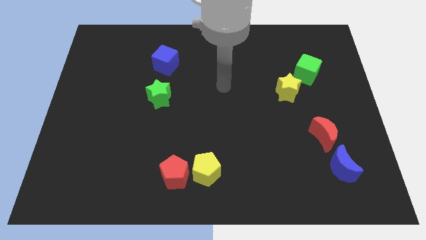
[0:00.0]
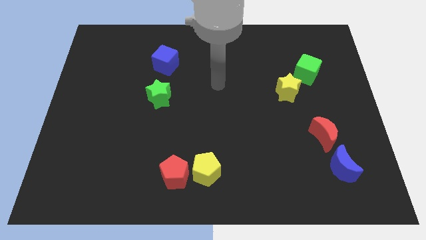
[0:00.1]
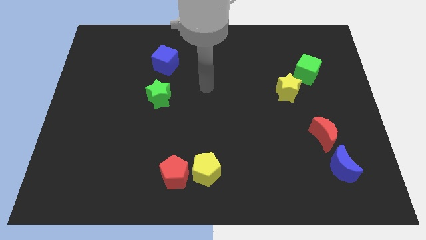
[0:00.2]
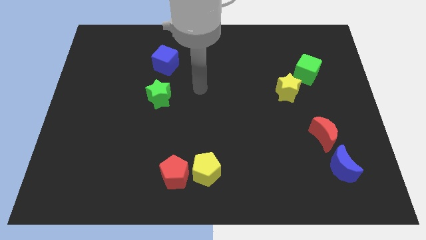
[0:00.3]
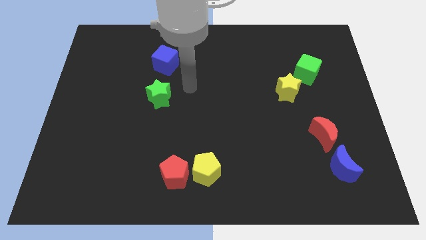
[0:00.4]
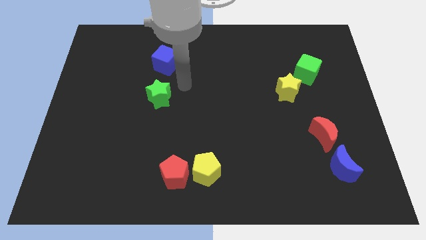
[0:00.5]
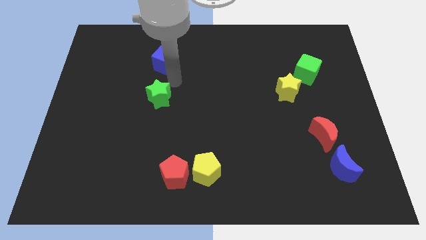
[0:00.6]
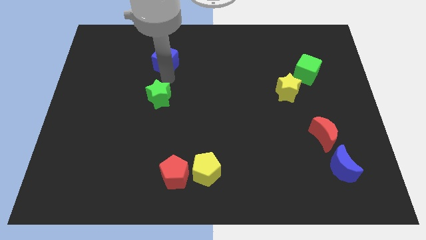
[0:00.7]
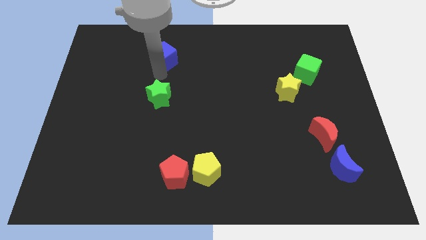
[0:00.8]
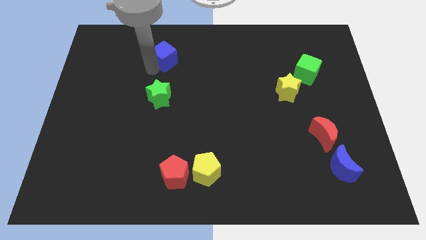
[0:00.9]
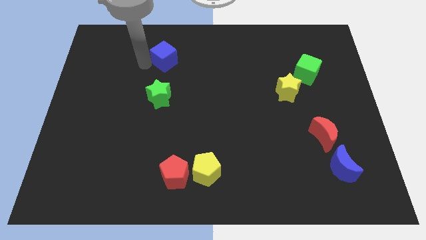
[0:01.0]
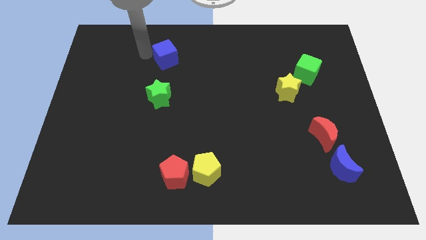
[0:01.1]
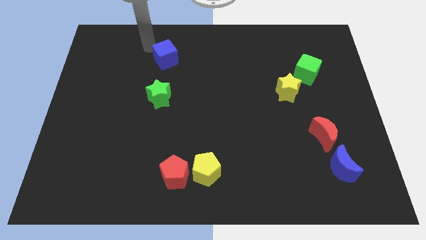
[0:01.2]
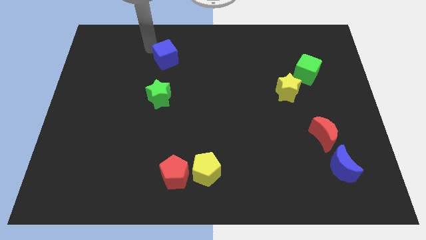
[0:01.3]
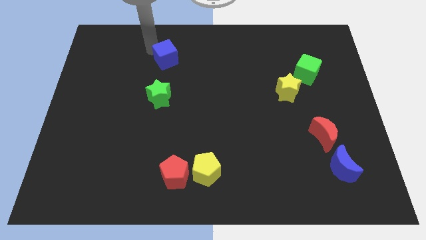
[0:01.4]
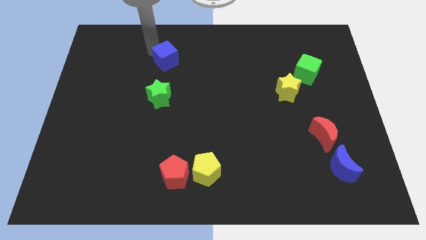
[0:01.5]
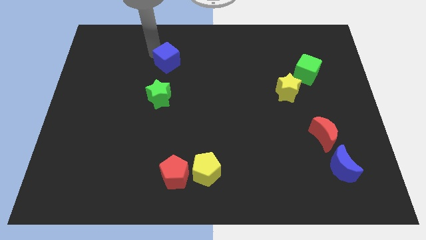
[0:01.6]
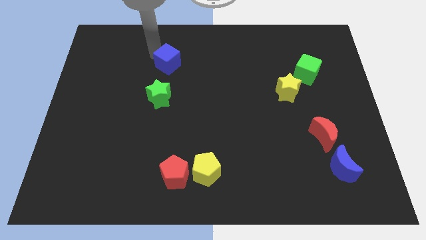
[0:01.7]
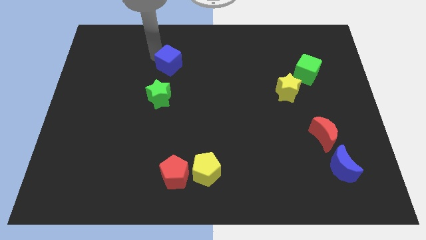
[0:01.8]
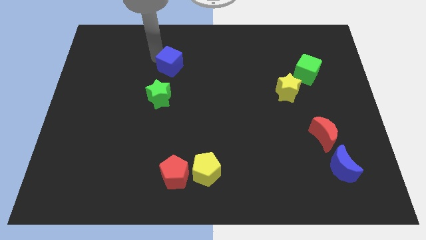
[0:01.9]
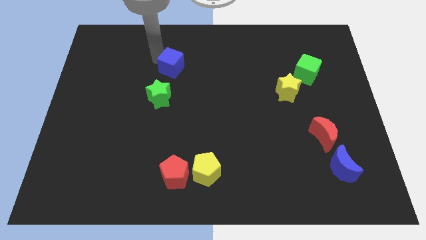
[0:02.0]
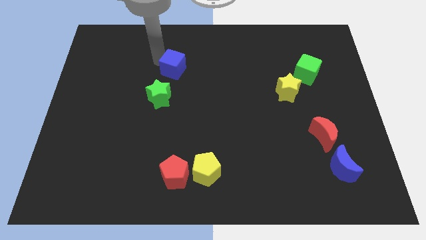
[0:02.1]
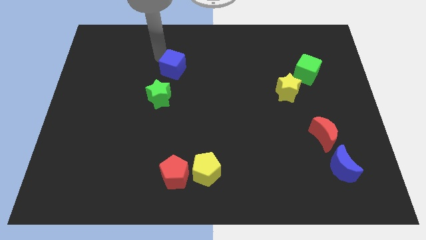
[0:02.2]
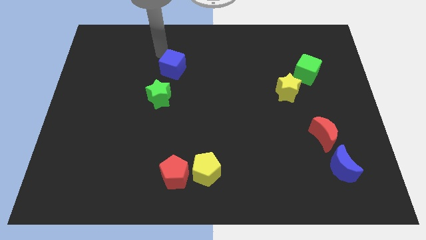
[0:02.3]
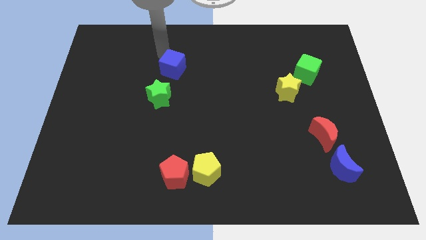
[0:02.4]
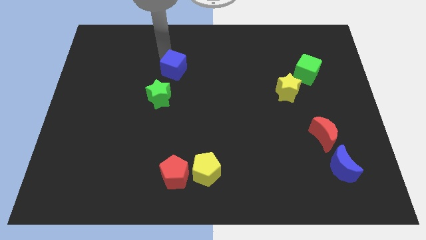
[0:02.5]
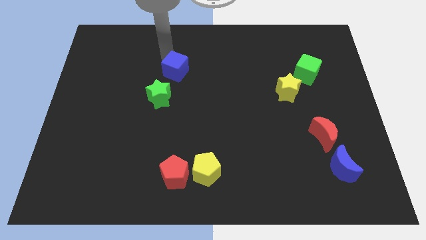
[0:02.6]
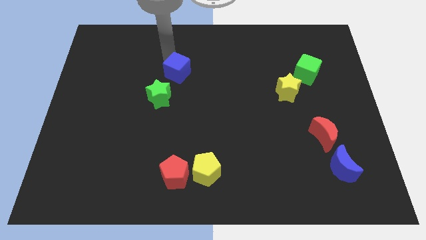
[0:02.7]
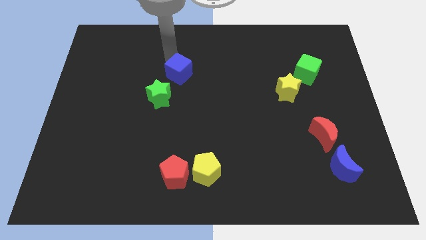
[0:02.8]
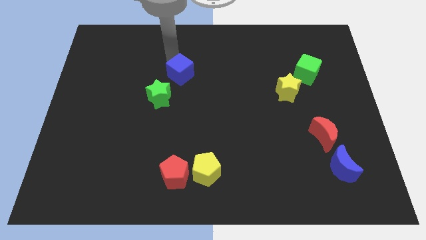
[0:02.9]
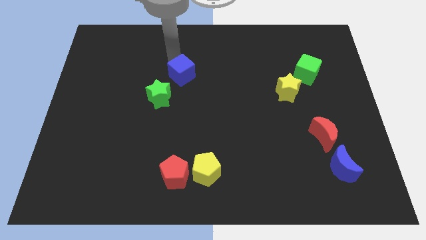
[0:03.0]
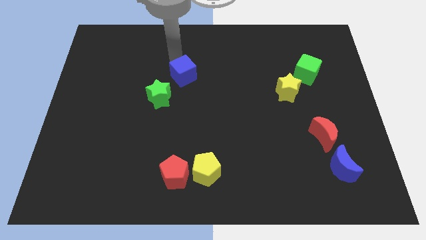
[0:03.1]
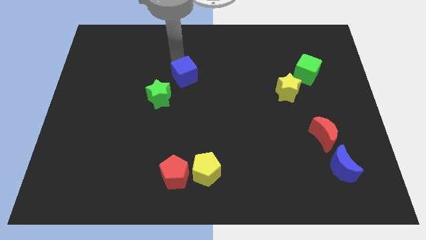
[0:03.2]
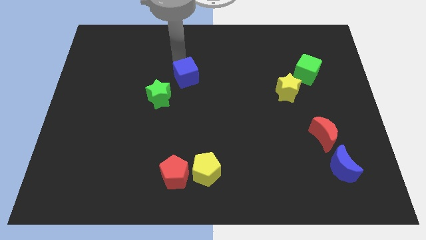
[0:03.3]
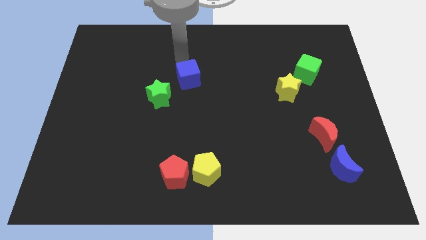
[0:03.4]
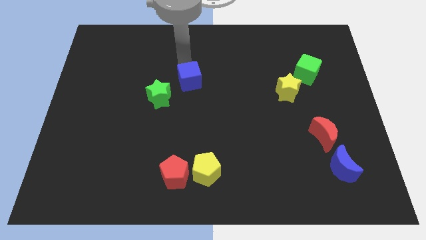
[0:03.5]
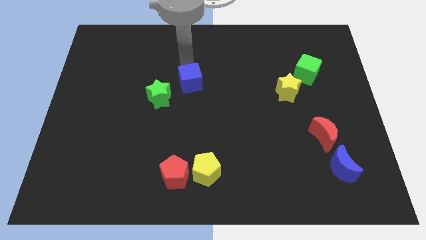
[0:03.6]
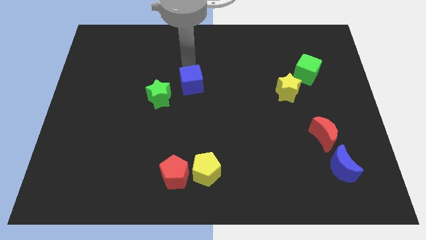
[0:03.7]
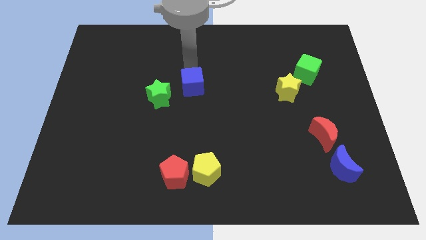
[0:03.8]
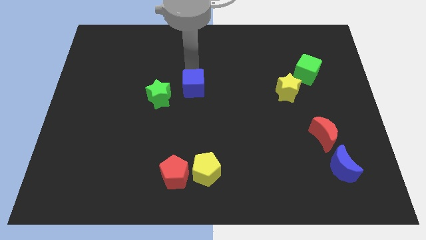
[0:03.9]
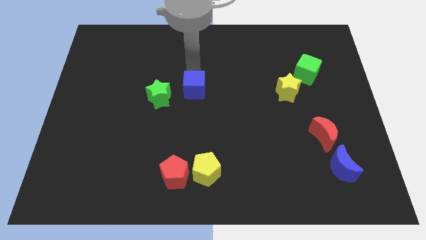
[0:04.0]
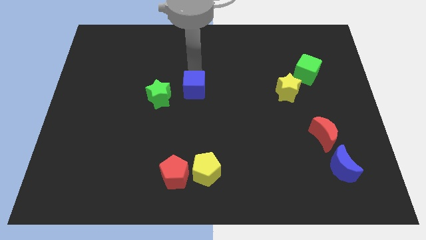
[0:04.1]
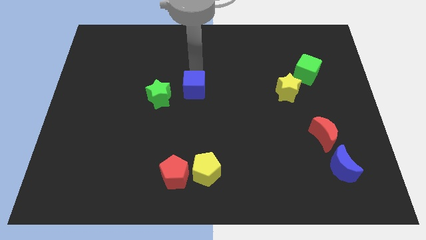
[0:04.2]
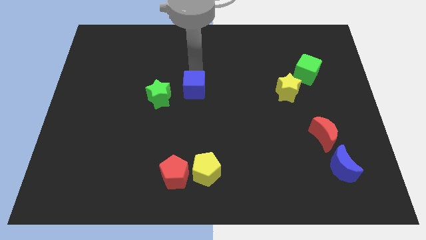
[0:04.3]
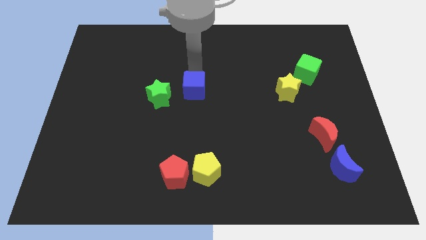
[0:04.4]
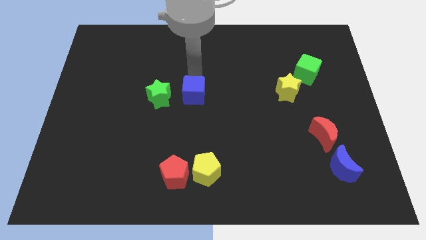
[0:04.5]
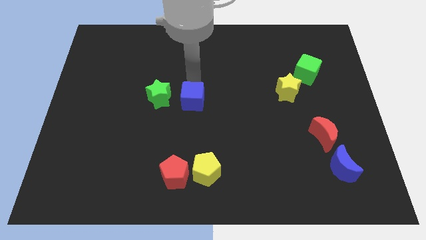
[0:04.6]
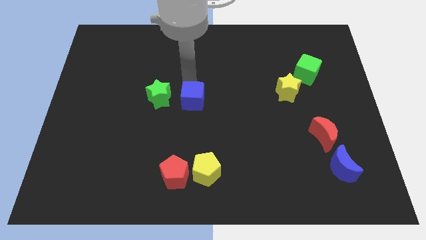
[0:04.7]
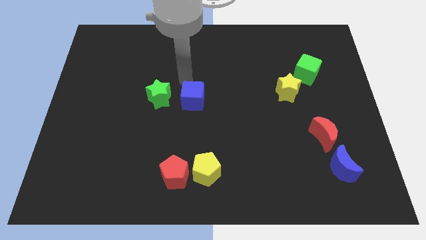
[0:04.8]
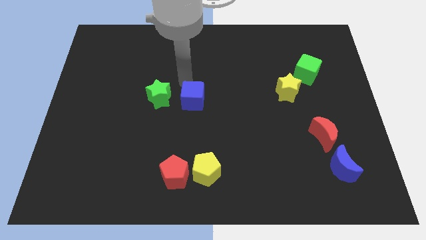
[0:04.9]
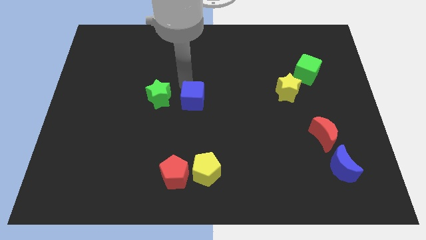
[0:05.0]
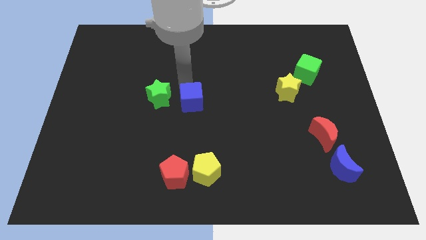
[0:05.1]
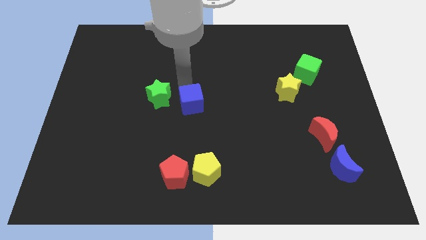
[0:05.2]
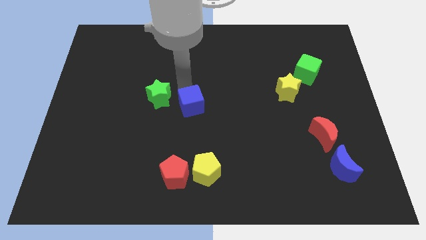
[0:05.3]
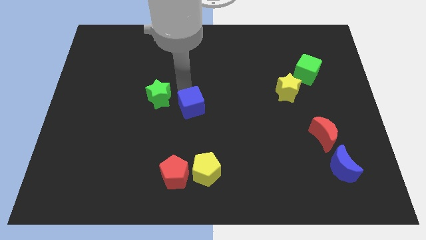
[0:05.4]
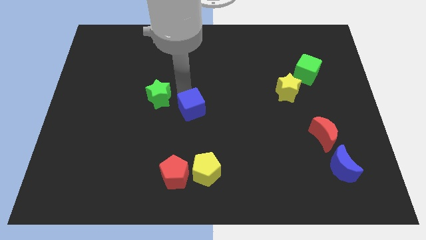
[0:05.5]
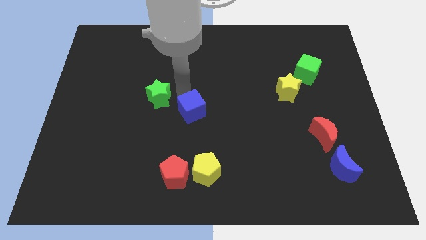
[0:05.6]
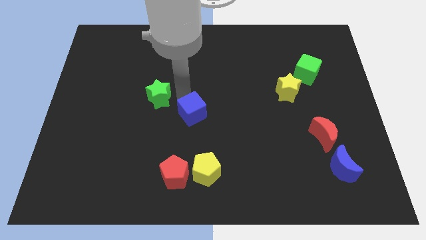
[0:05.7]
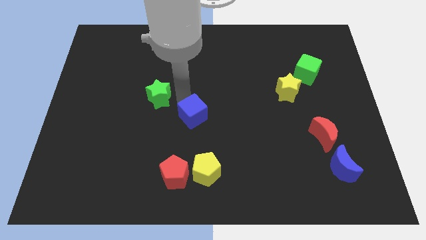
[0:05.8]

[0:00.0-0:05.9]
push the blue cube to the top side of the yellow pentagon

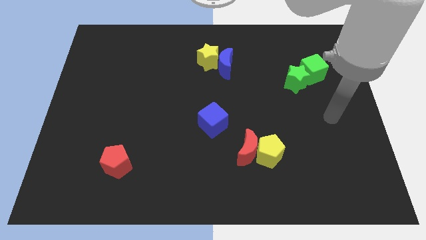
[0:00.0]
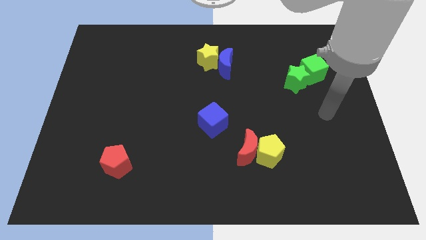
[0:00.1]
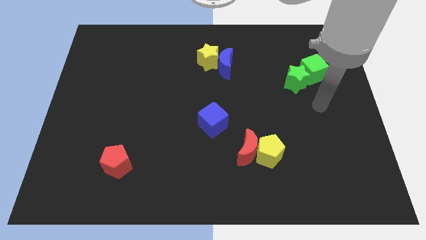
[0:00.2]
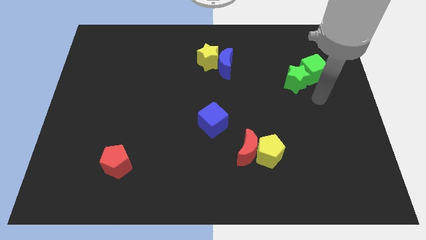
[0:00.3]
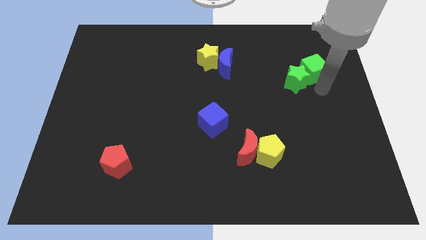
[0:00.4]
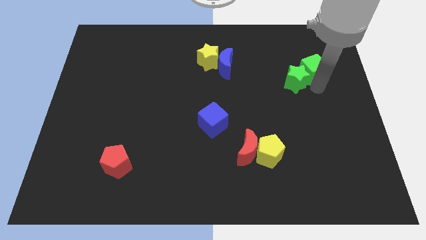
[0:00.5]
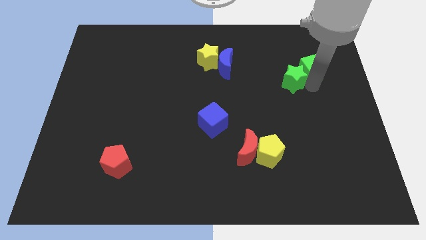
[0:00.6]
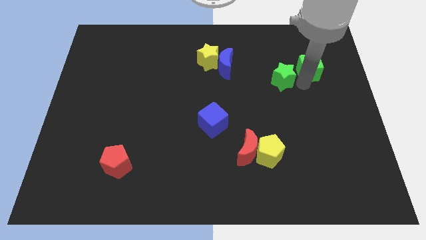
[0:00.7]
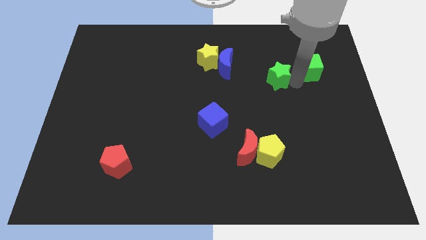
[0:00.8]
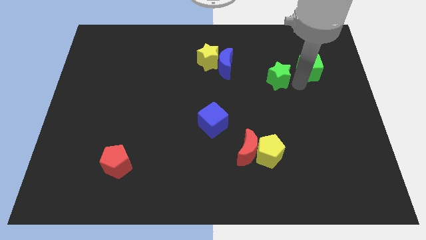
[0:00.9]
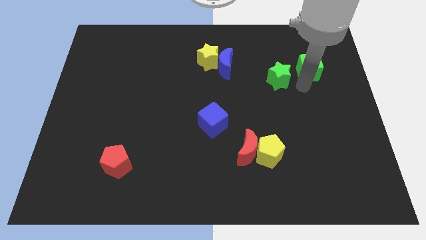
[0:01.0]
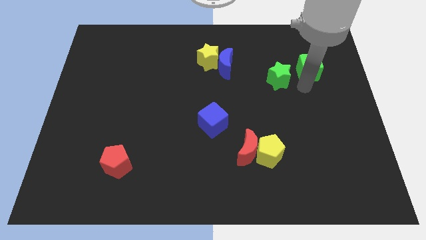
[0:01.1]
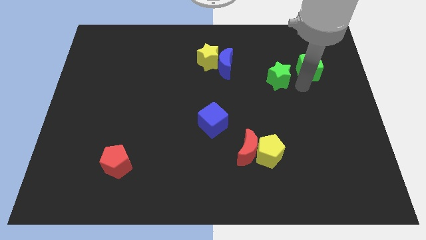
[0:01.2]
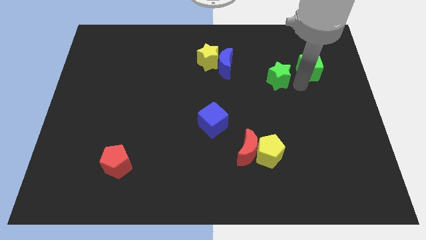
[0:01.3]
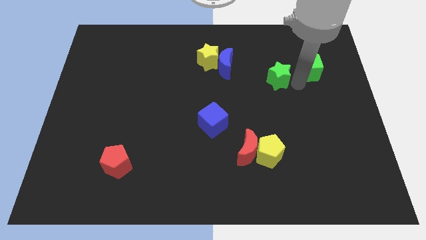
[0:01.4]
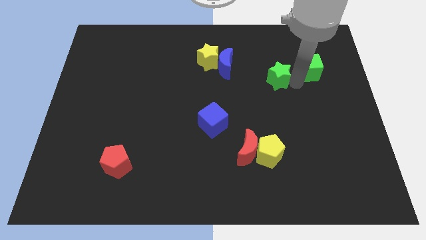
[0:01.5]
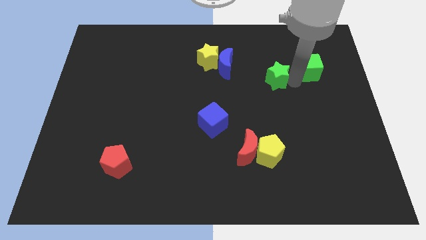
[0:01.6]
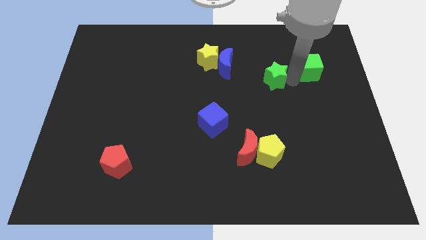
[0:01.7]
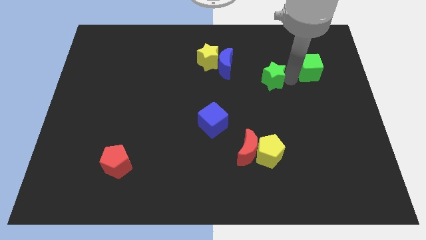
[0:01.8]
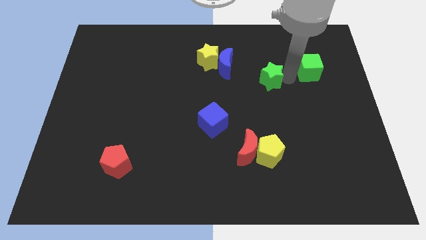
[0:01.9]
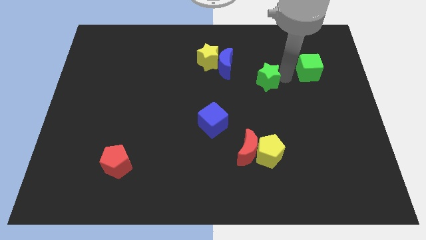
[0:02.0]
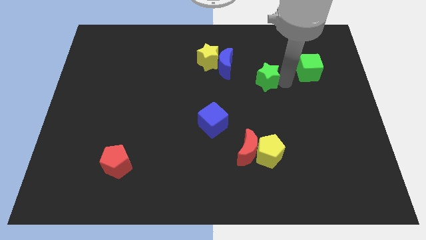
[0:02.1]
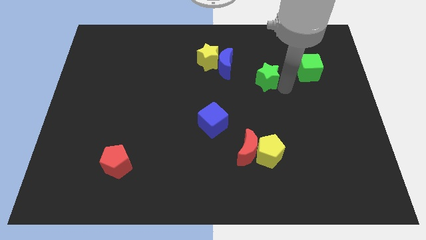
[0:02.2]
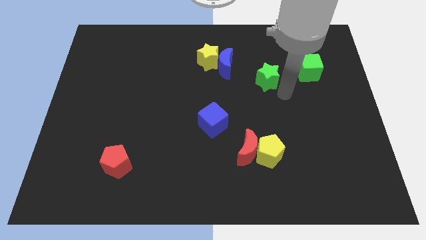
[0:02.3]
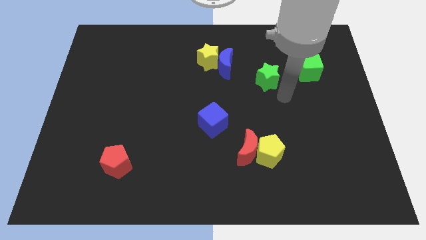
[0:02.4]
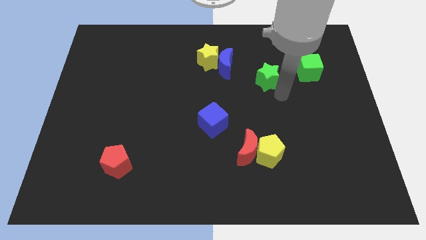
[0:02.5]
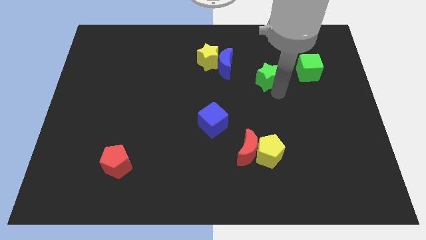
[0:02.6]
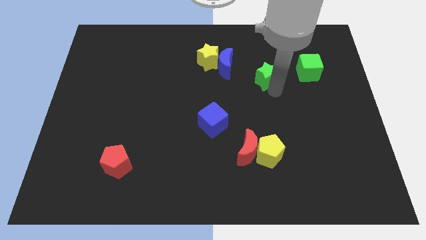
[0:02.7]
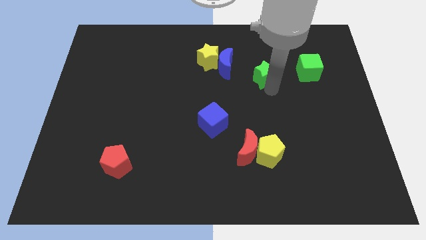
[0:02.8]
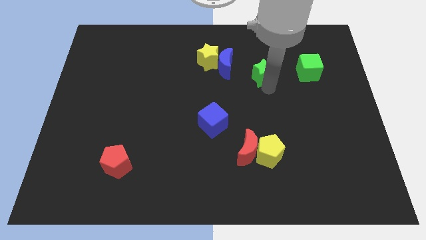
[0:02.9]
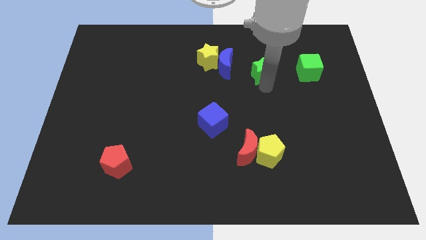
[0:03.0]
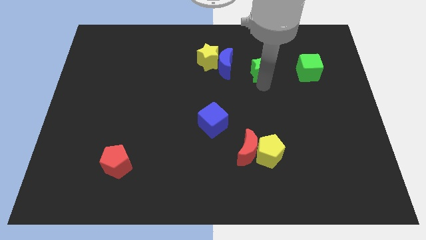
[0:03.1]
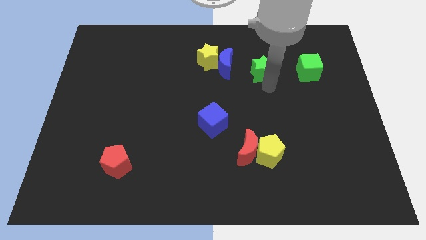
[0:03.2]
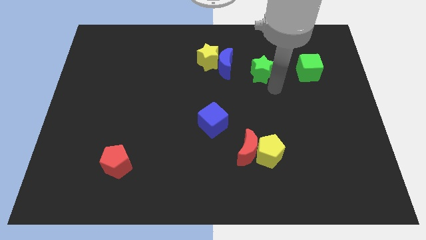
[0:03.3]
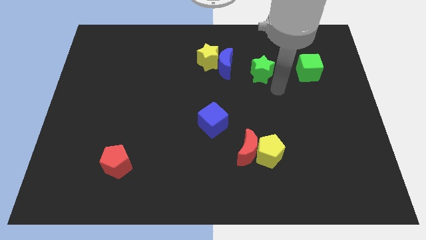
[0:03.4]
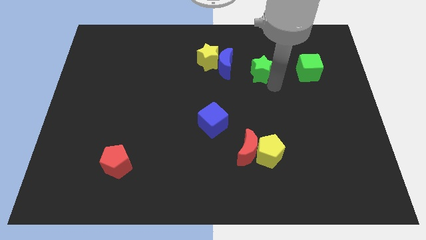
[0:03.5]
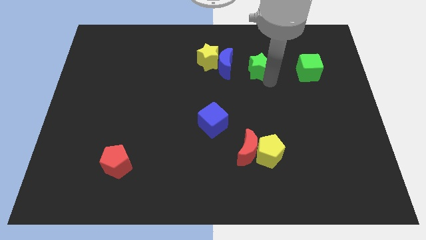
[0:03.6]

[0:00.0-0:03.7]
move the green star to the right of the yellow star
